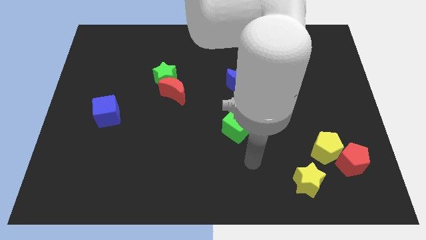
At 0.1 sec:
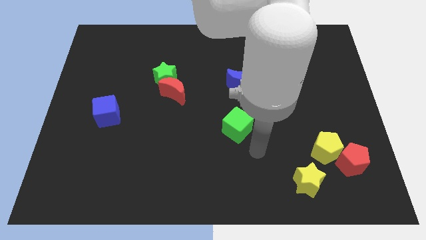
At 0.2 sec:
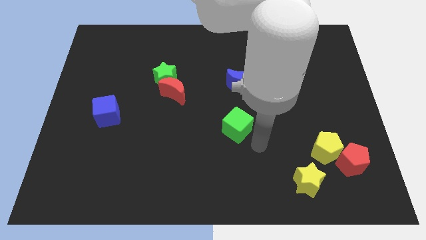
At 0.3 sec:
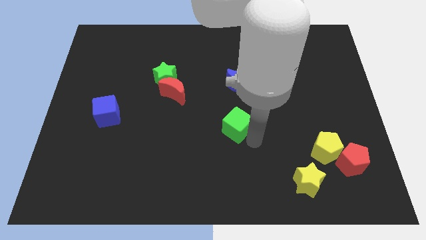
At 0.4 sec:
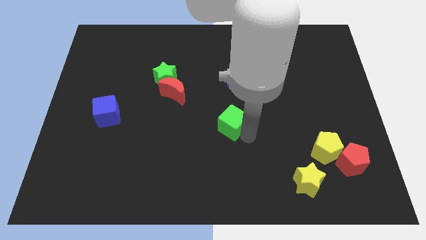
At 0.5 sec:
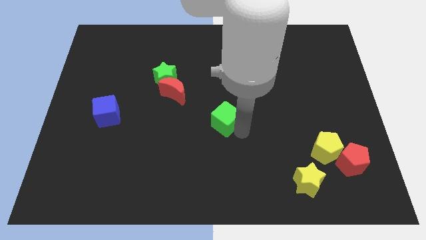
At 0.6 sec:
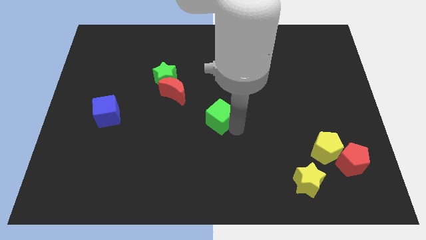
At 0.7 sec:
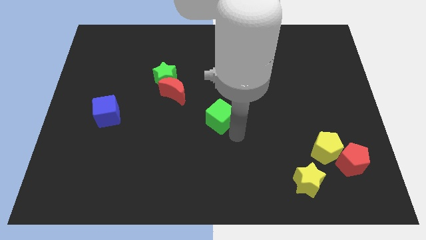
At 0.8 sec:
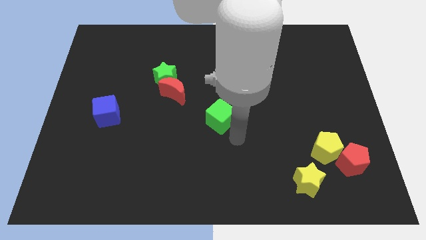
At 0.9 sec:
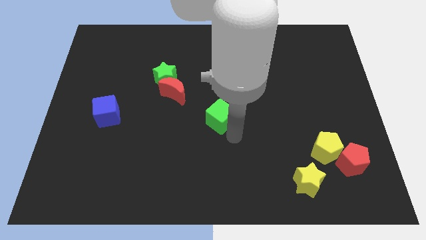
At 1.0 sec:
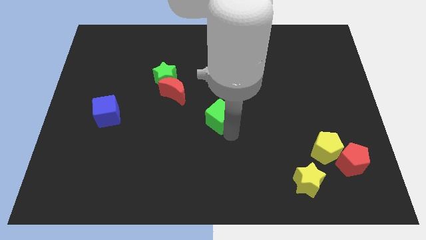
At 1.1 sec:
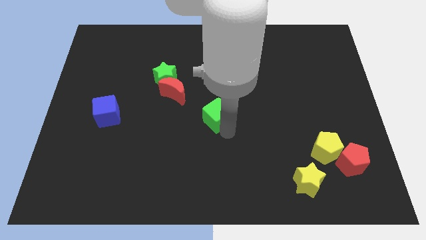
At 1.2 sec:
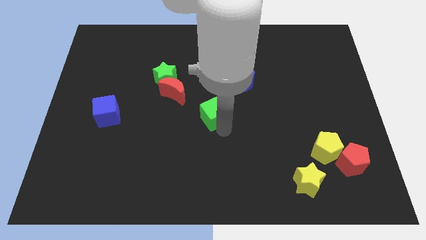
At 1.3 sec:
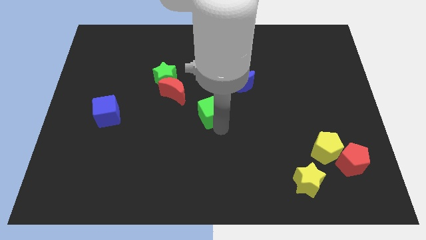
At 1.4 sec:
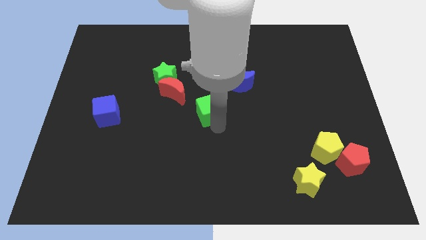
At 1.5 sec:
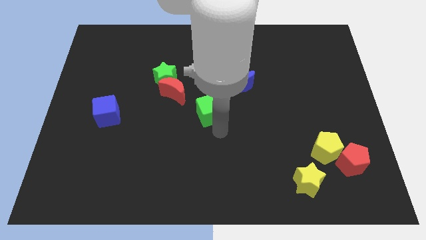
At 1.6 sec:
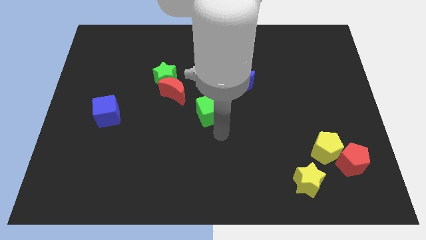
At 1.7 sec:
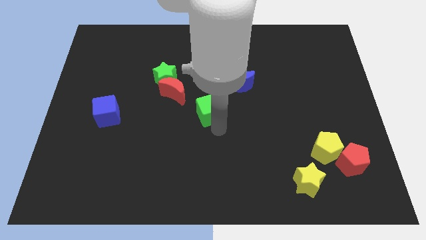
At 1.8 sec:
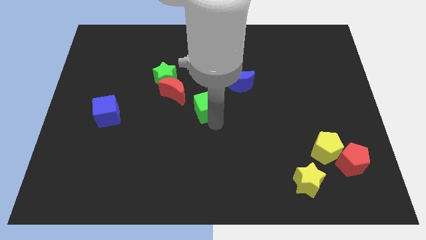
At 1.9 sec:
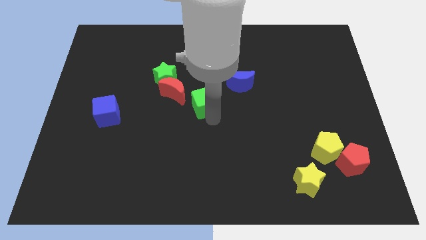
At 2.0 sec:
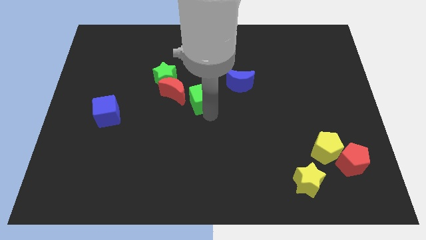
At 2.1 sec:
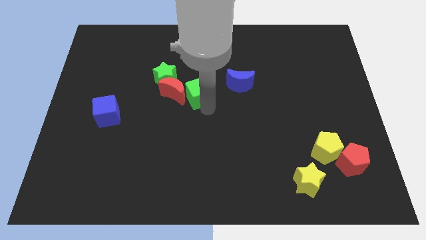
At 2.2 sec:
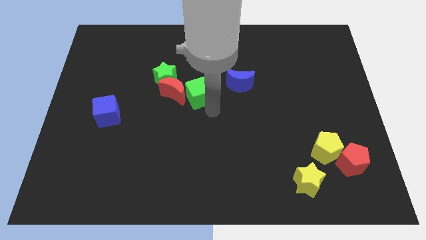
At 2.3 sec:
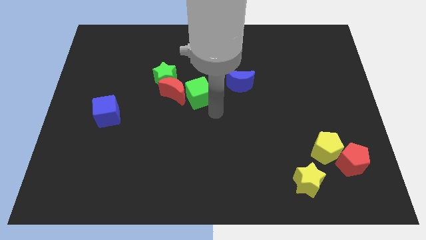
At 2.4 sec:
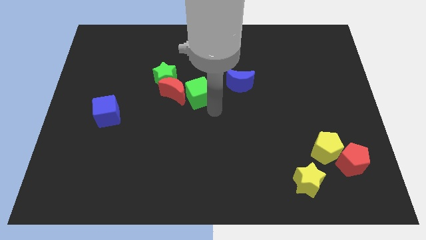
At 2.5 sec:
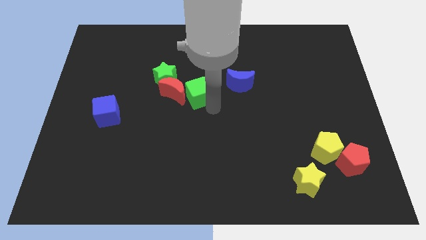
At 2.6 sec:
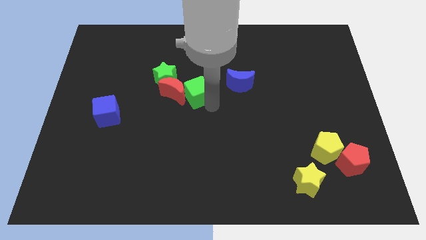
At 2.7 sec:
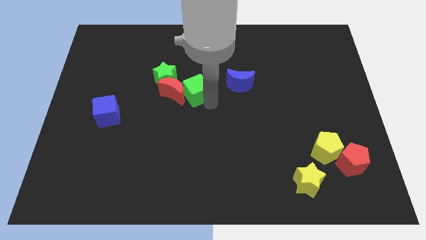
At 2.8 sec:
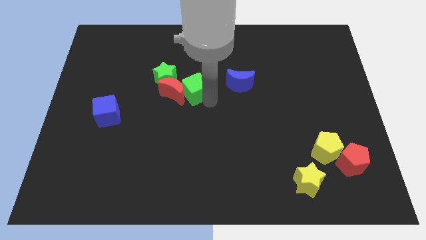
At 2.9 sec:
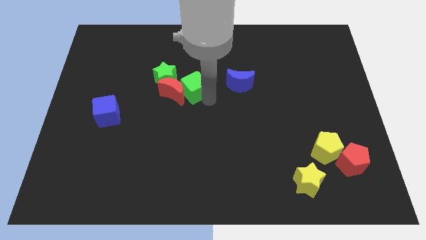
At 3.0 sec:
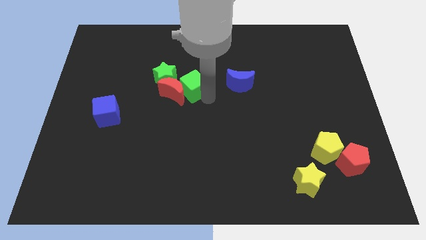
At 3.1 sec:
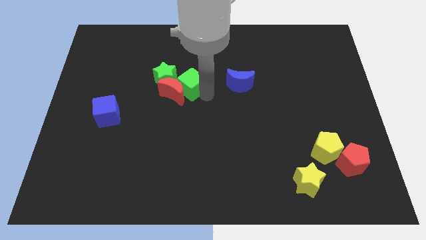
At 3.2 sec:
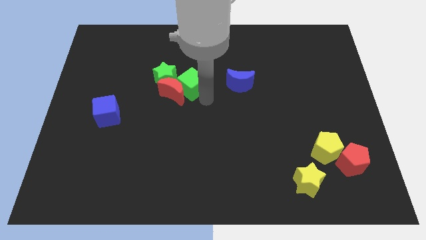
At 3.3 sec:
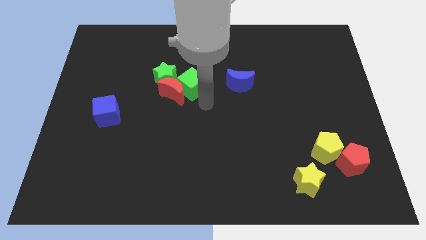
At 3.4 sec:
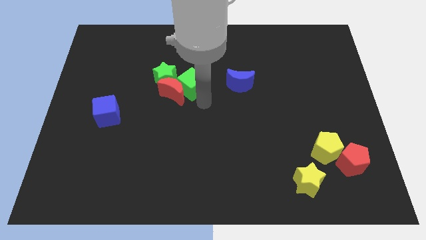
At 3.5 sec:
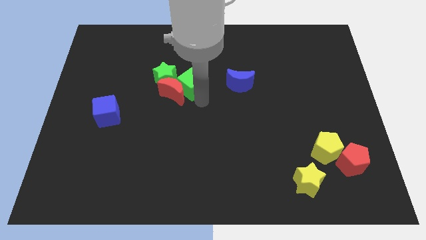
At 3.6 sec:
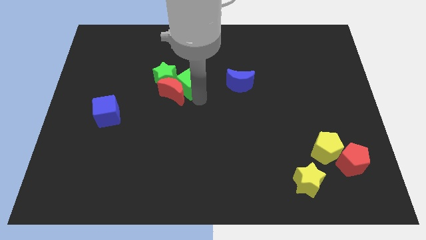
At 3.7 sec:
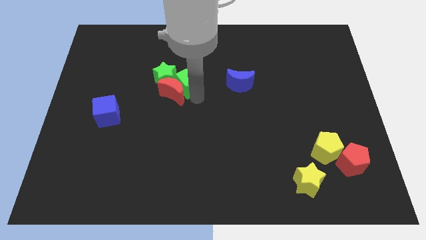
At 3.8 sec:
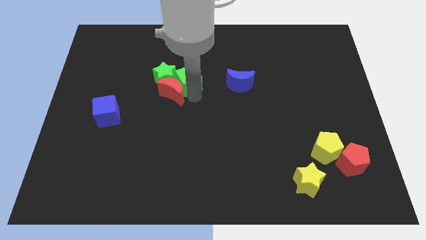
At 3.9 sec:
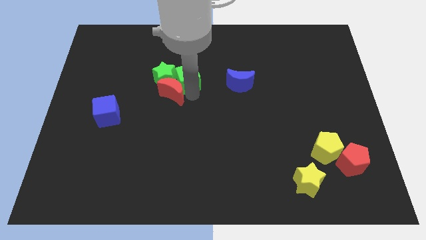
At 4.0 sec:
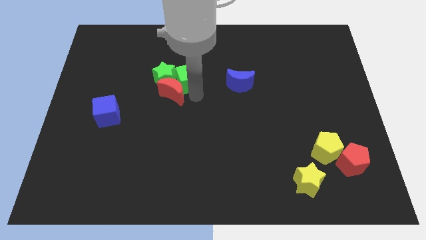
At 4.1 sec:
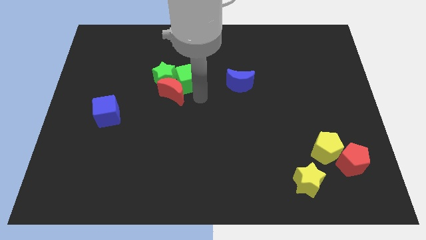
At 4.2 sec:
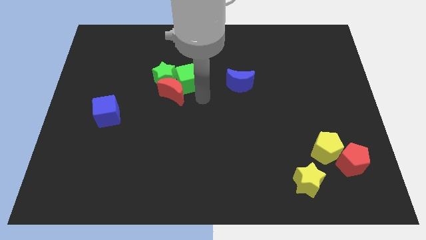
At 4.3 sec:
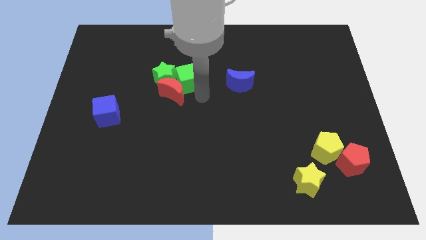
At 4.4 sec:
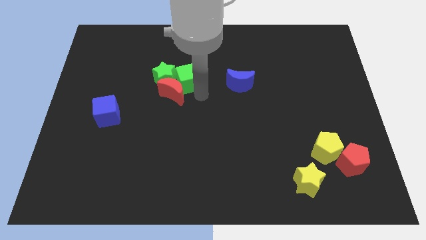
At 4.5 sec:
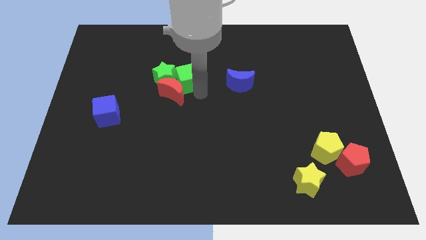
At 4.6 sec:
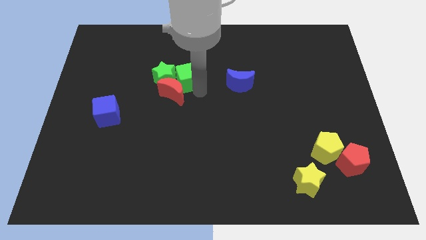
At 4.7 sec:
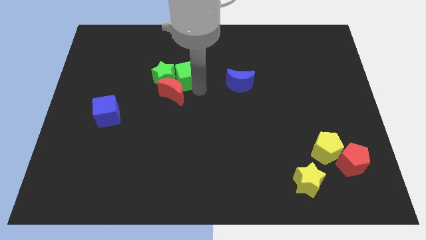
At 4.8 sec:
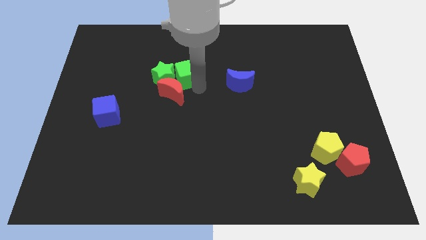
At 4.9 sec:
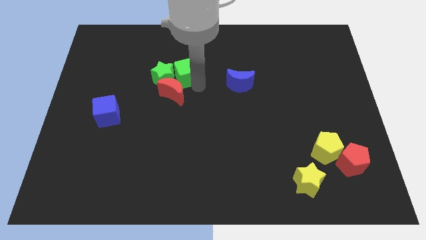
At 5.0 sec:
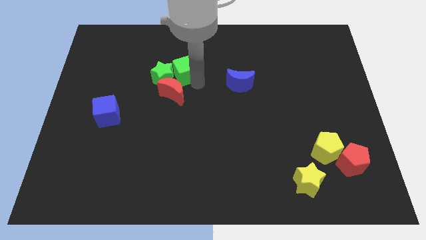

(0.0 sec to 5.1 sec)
move the green cube diagonally up and to the left

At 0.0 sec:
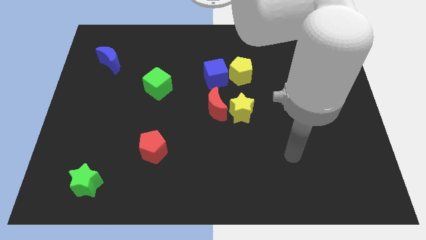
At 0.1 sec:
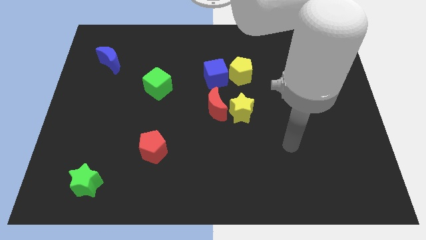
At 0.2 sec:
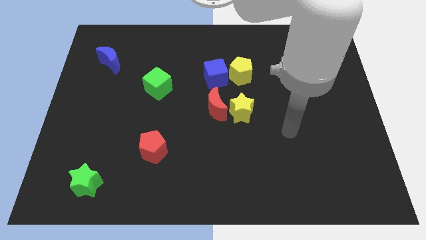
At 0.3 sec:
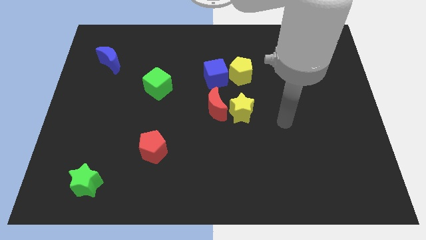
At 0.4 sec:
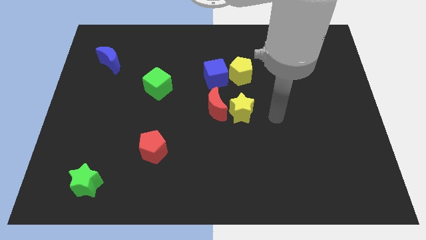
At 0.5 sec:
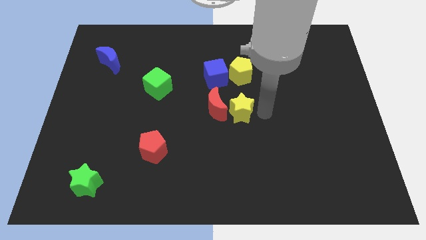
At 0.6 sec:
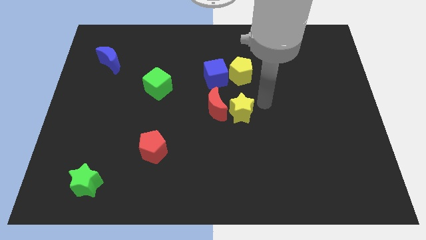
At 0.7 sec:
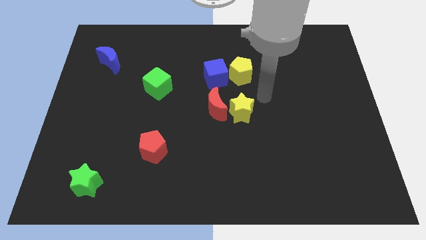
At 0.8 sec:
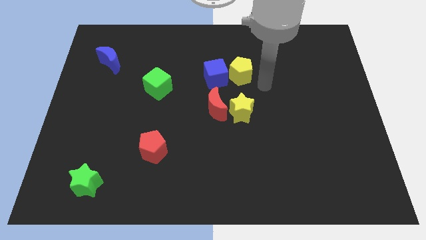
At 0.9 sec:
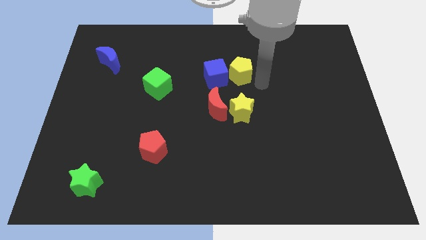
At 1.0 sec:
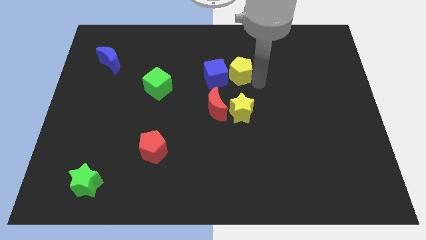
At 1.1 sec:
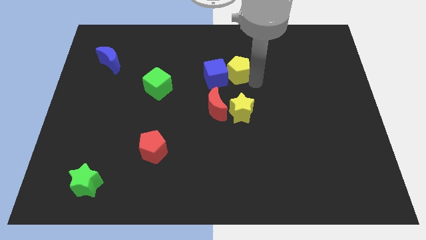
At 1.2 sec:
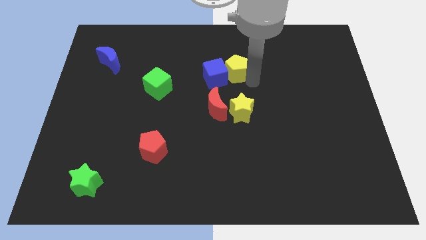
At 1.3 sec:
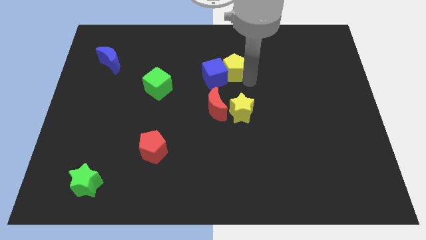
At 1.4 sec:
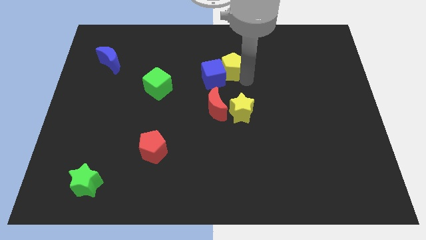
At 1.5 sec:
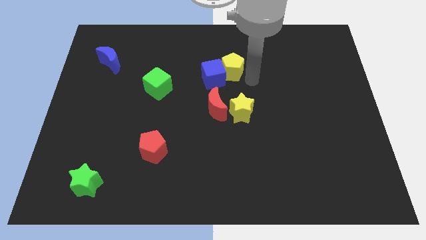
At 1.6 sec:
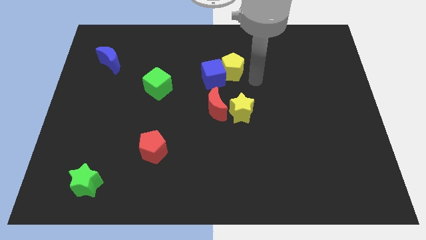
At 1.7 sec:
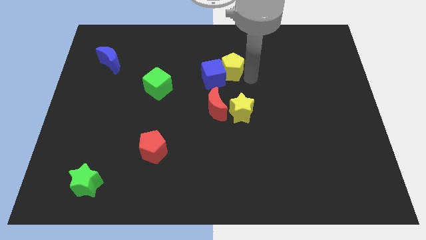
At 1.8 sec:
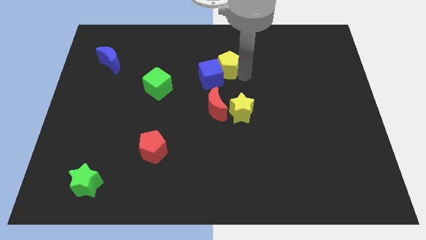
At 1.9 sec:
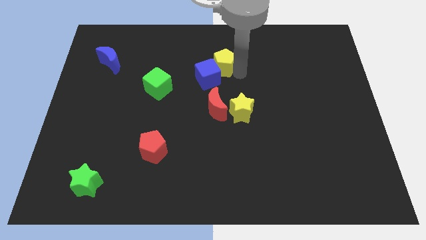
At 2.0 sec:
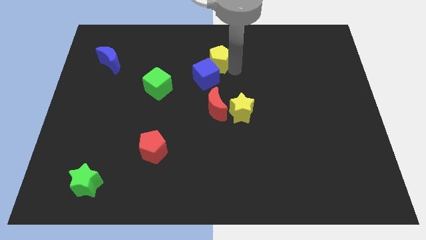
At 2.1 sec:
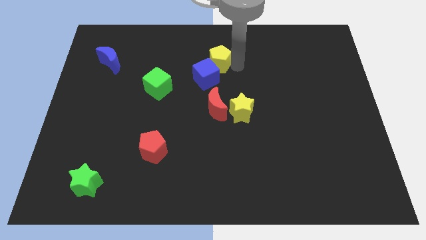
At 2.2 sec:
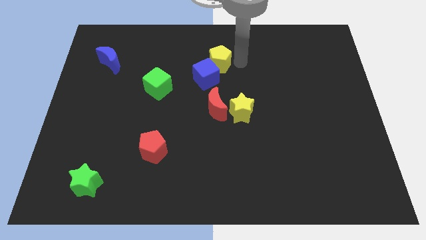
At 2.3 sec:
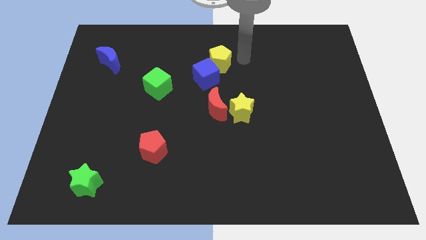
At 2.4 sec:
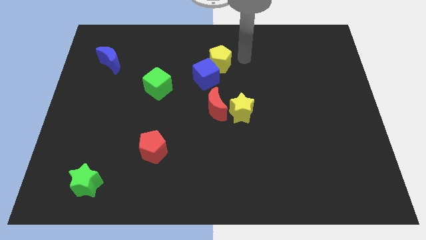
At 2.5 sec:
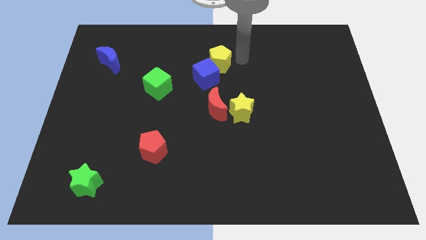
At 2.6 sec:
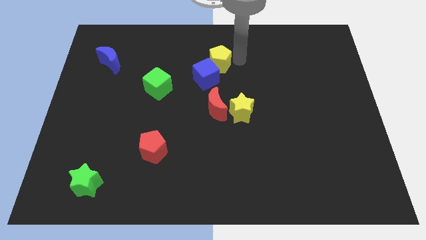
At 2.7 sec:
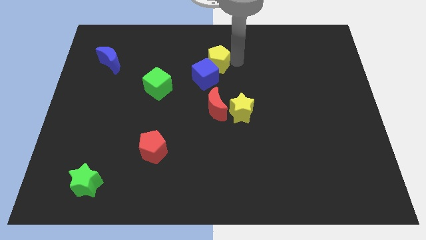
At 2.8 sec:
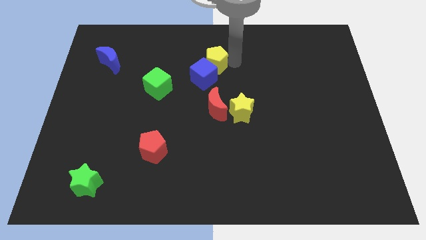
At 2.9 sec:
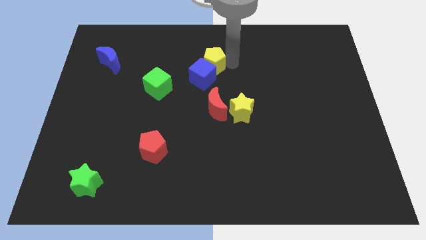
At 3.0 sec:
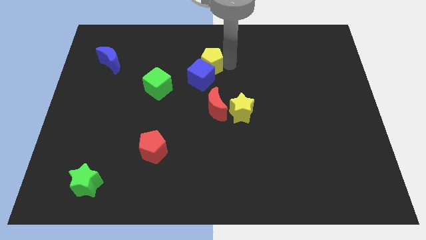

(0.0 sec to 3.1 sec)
push the yellow pentagon a little to the left
